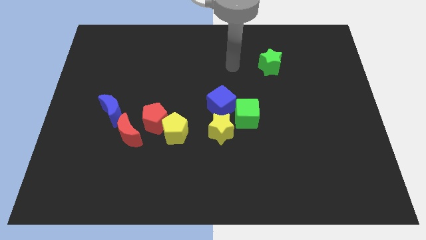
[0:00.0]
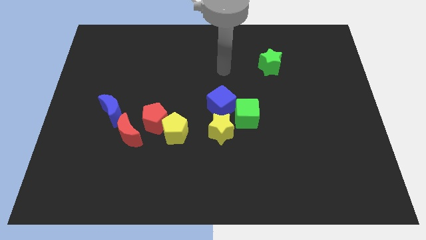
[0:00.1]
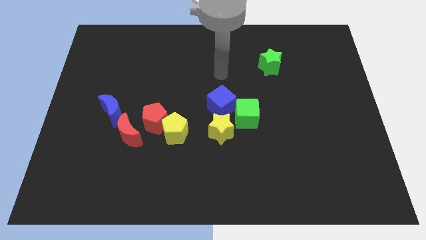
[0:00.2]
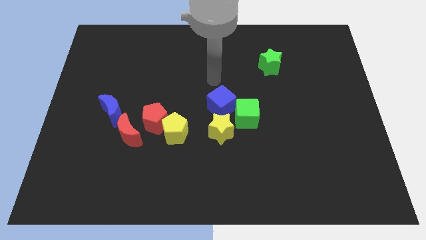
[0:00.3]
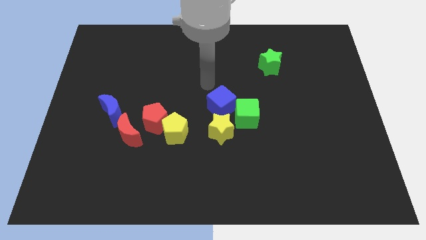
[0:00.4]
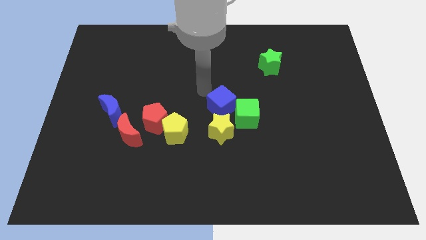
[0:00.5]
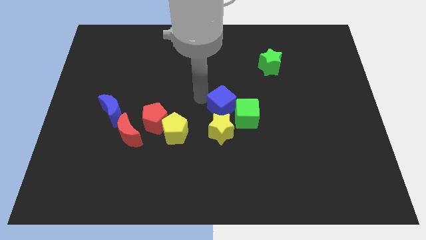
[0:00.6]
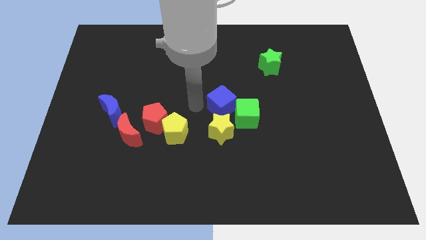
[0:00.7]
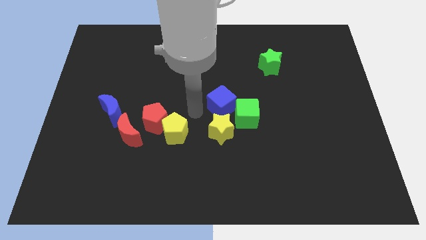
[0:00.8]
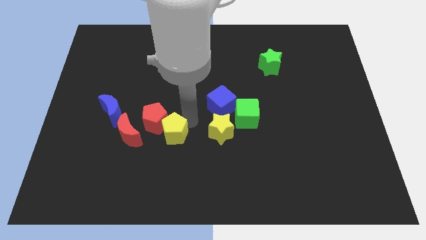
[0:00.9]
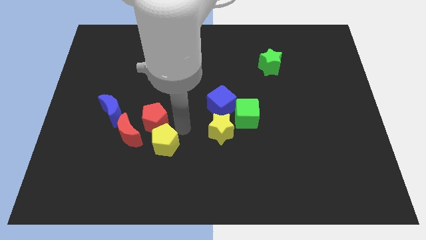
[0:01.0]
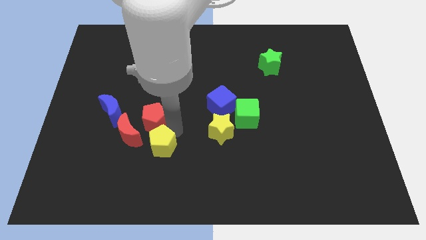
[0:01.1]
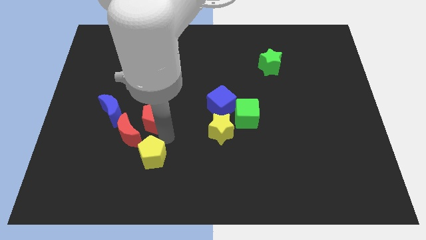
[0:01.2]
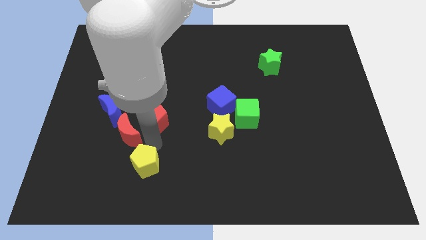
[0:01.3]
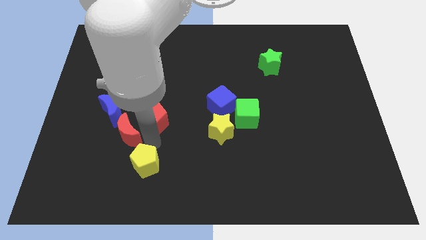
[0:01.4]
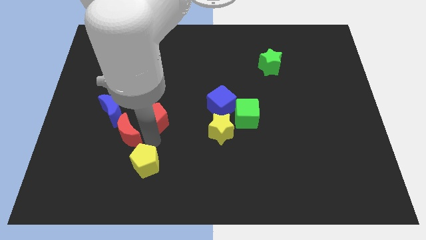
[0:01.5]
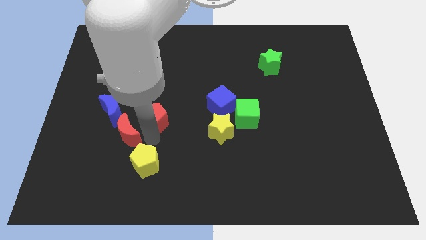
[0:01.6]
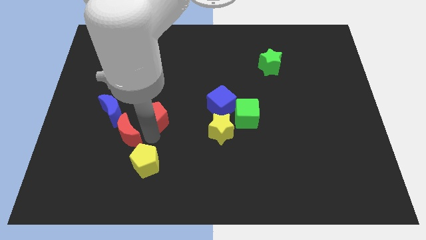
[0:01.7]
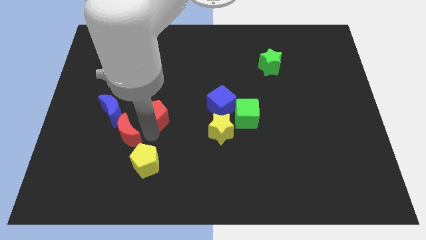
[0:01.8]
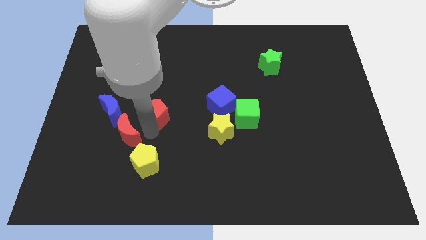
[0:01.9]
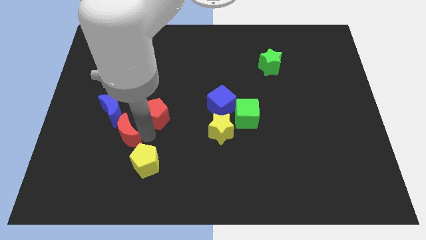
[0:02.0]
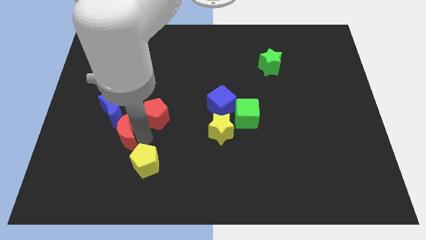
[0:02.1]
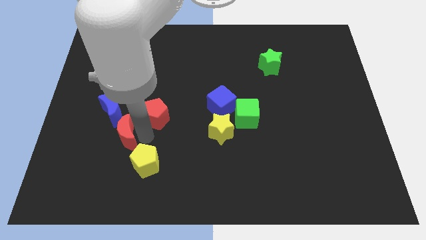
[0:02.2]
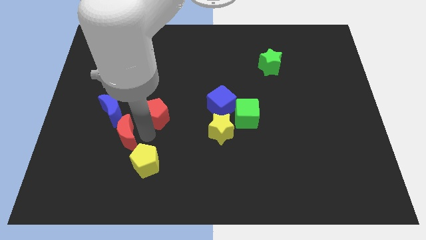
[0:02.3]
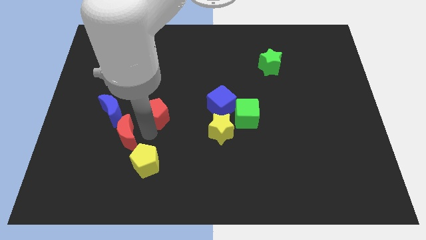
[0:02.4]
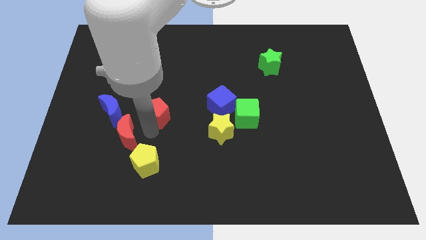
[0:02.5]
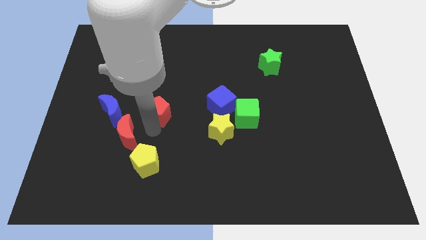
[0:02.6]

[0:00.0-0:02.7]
move the red pentagon away from the yellow pentagon and red moon

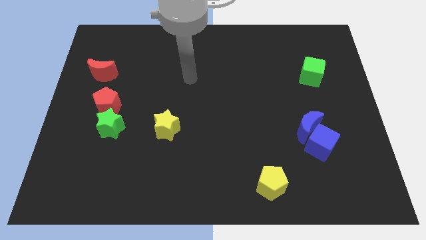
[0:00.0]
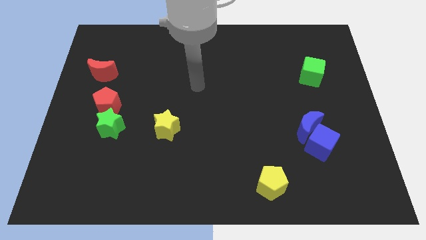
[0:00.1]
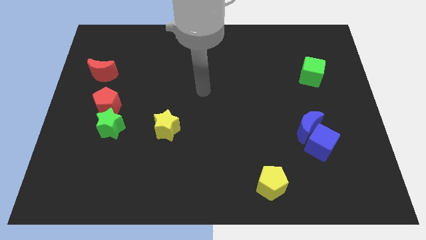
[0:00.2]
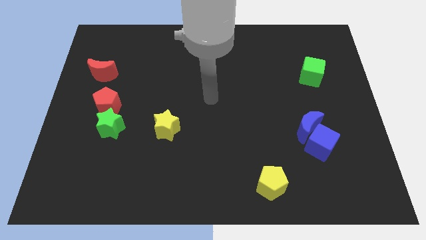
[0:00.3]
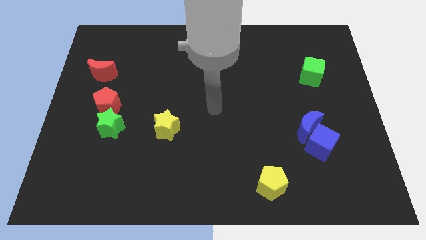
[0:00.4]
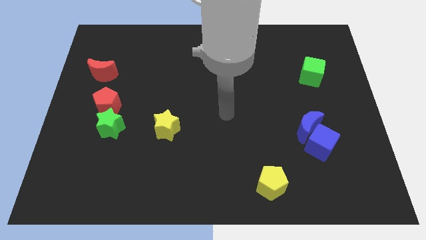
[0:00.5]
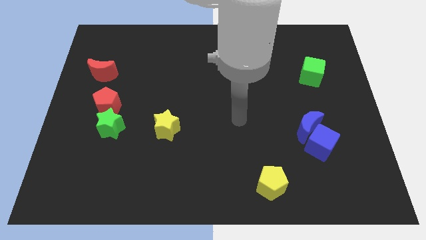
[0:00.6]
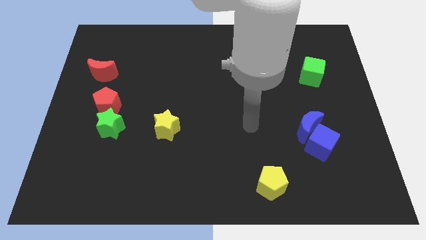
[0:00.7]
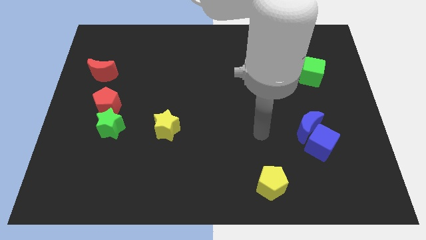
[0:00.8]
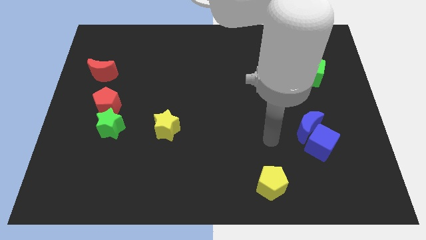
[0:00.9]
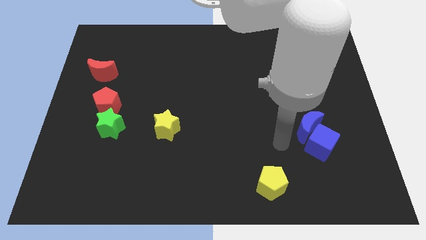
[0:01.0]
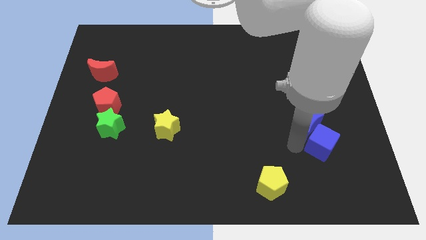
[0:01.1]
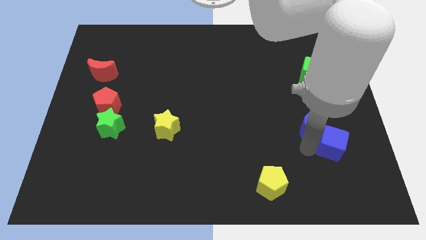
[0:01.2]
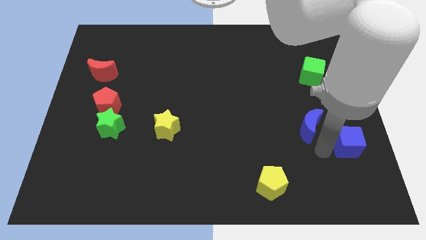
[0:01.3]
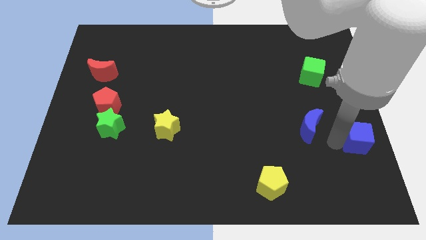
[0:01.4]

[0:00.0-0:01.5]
move the blue moon away from the blue cube

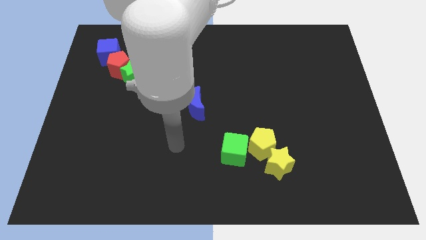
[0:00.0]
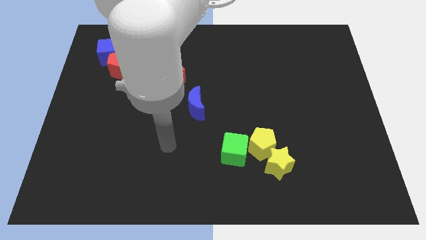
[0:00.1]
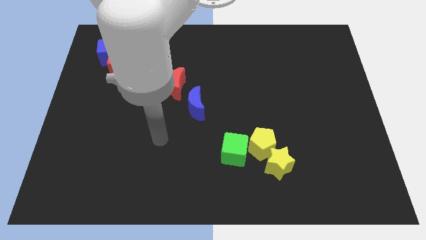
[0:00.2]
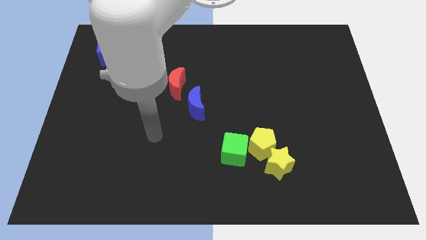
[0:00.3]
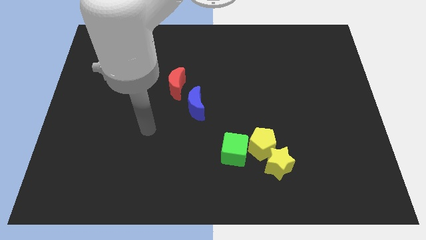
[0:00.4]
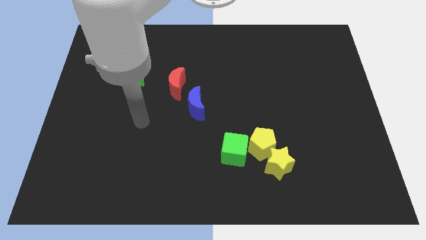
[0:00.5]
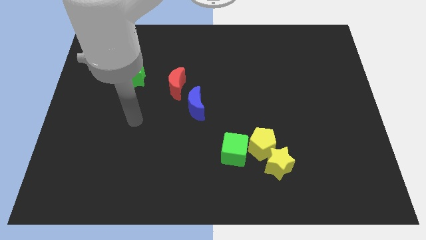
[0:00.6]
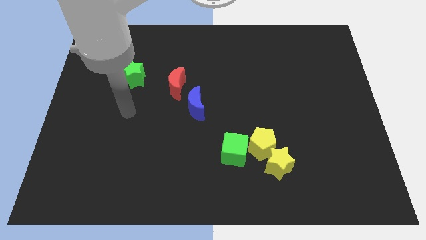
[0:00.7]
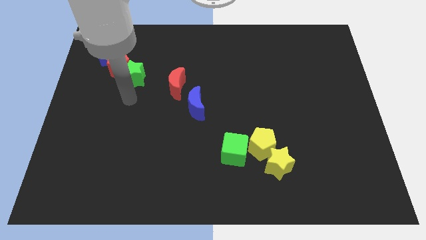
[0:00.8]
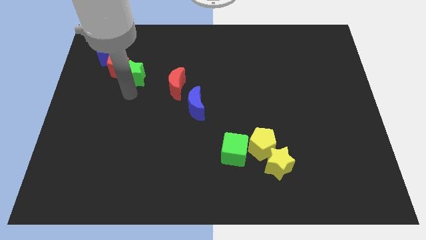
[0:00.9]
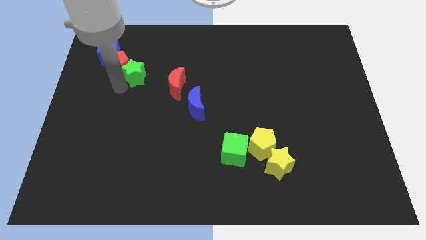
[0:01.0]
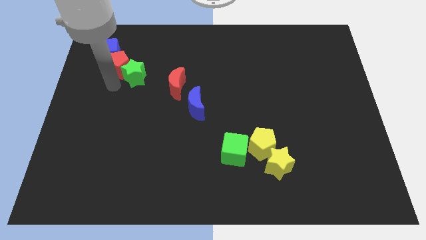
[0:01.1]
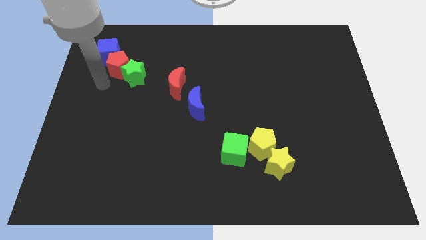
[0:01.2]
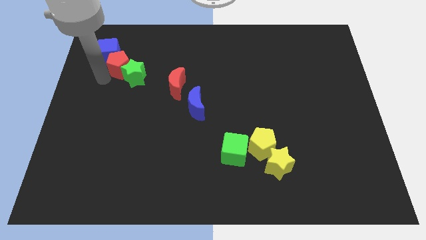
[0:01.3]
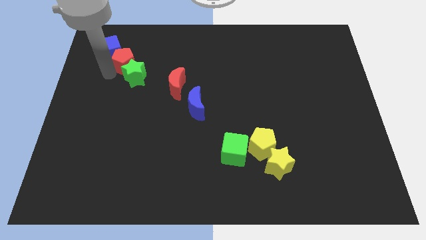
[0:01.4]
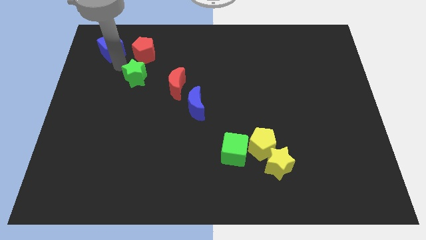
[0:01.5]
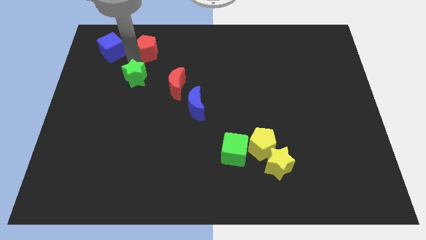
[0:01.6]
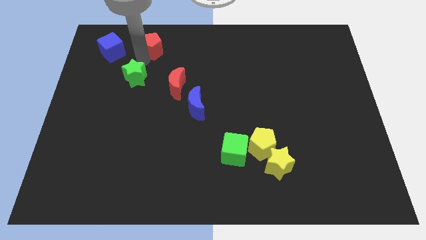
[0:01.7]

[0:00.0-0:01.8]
move the green star away from the red pentagon

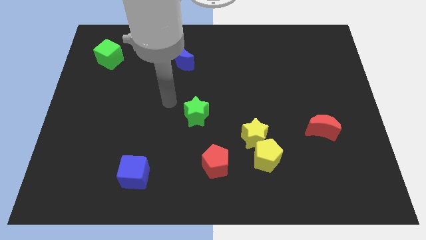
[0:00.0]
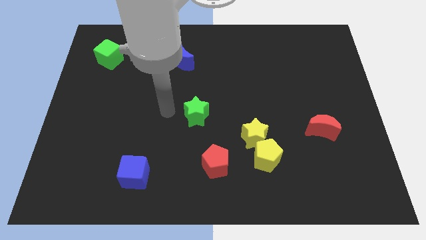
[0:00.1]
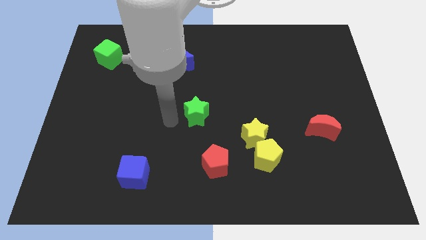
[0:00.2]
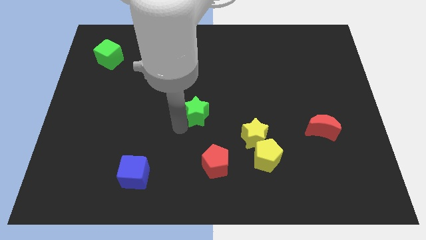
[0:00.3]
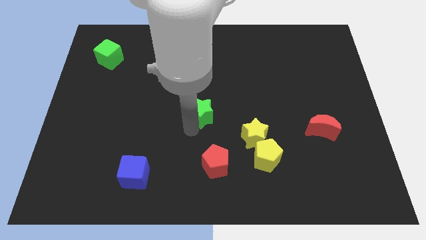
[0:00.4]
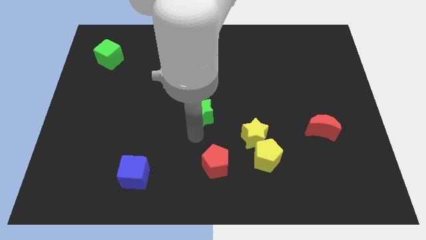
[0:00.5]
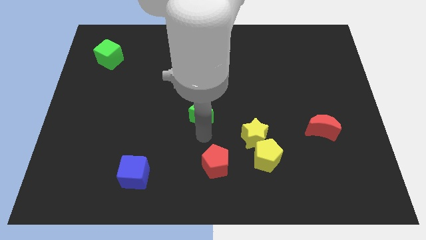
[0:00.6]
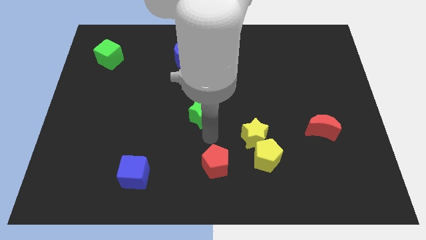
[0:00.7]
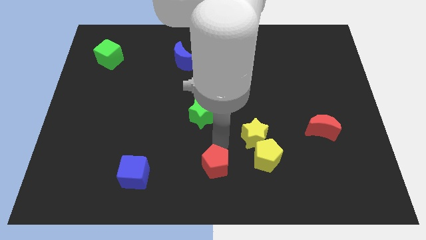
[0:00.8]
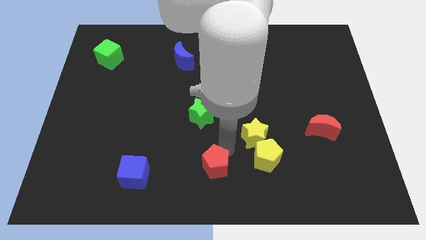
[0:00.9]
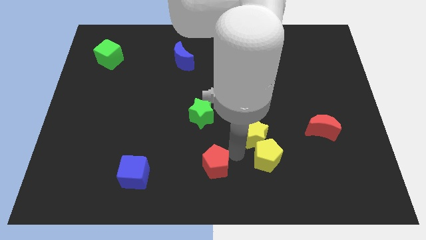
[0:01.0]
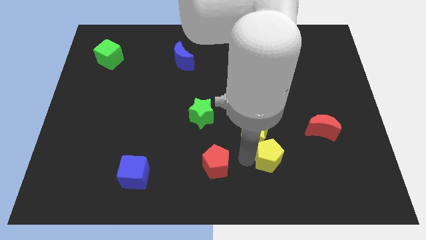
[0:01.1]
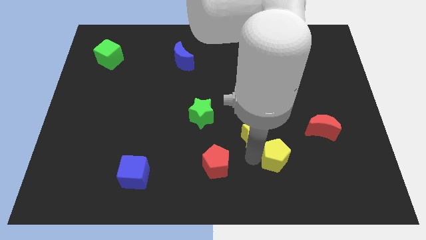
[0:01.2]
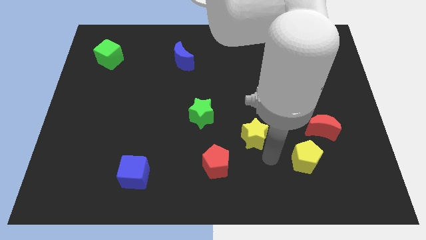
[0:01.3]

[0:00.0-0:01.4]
separate the yellow star from the yellow pentagon

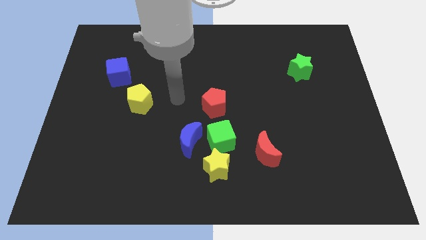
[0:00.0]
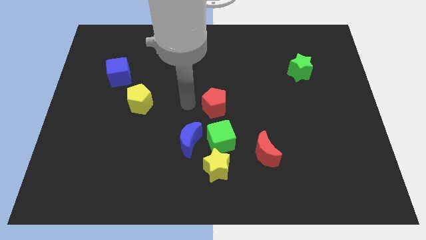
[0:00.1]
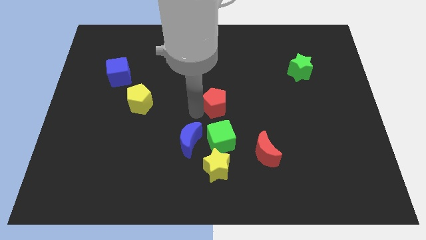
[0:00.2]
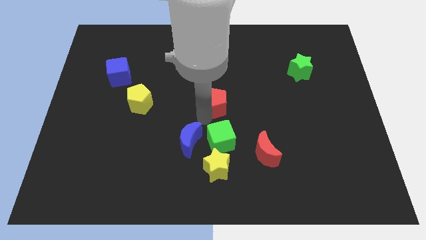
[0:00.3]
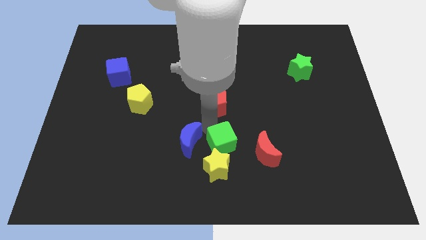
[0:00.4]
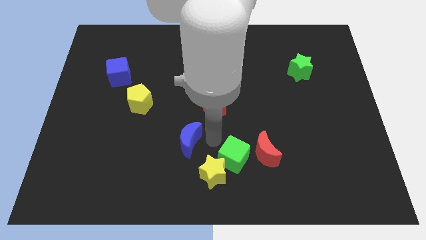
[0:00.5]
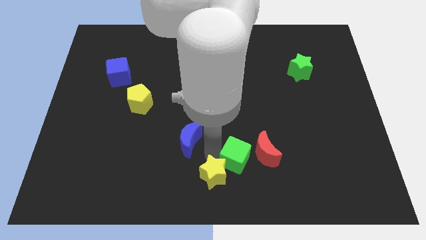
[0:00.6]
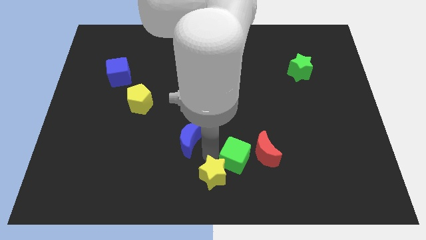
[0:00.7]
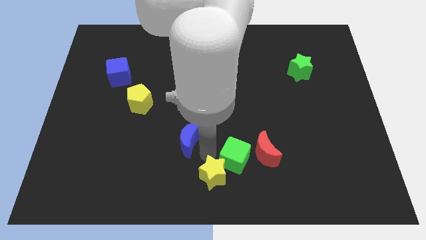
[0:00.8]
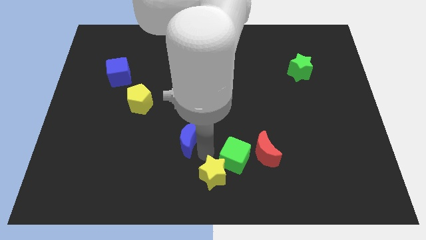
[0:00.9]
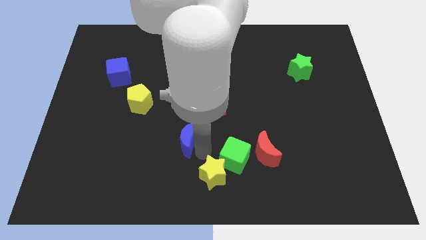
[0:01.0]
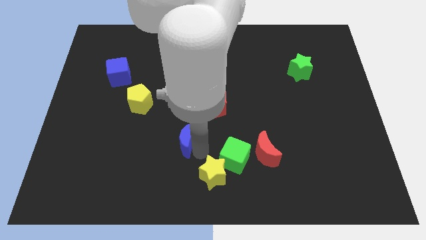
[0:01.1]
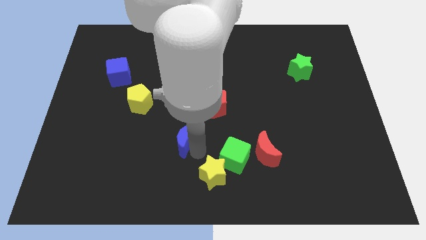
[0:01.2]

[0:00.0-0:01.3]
pull the blue moon apart from the green cube and yellow star

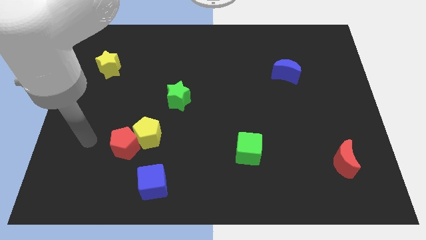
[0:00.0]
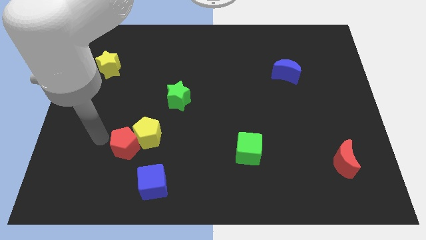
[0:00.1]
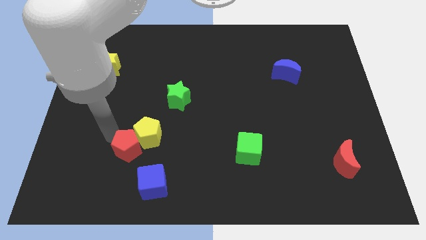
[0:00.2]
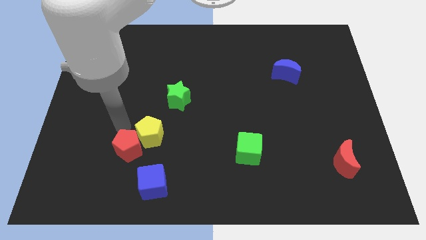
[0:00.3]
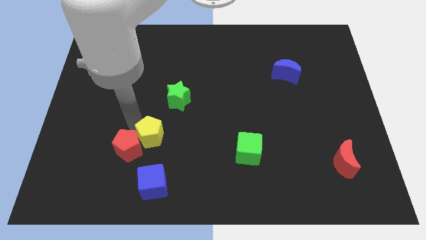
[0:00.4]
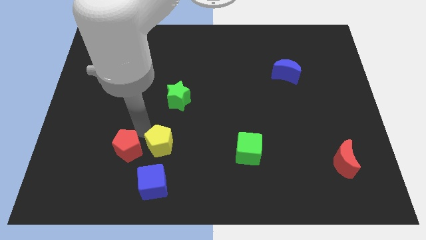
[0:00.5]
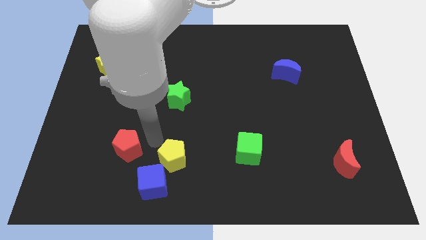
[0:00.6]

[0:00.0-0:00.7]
move the red pentagon away from the yellow pentagon
